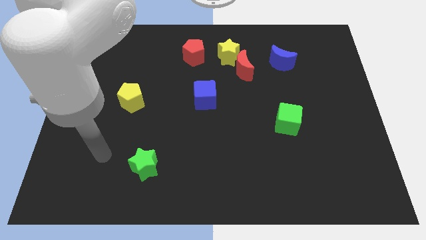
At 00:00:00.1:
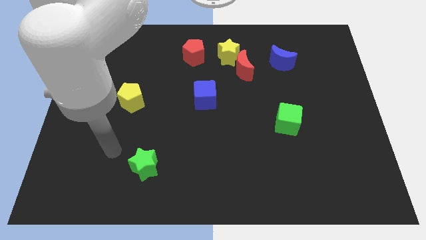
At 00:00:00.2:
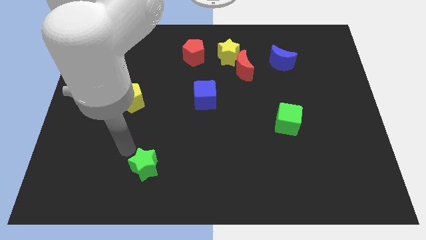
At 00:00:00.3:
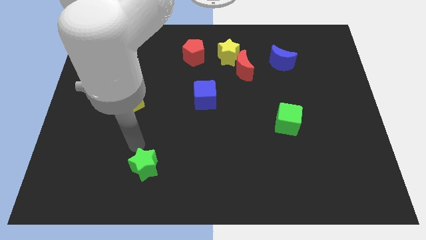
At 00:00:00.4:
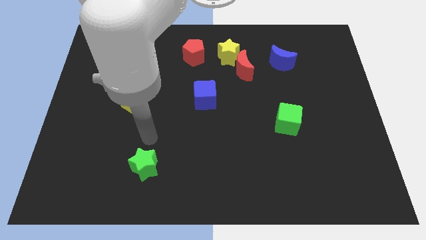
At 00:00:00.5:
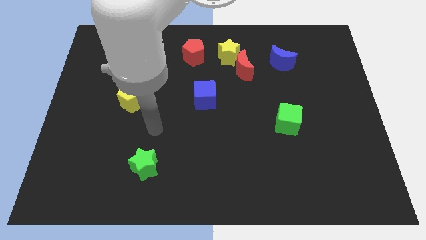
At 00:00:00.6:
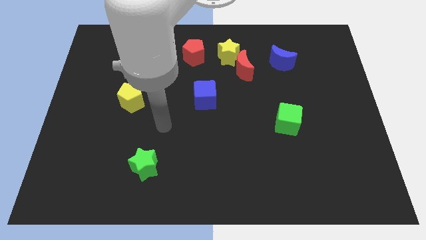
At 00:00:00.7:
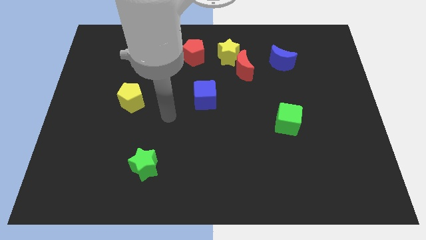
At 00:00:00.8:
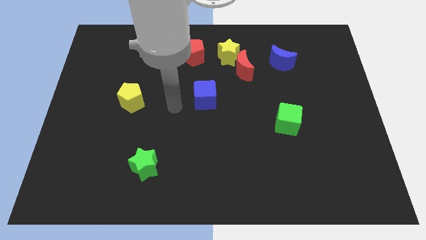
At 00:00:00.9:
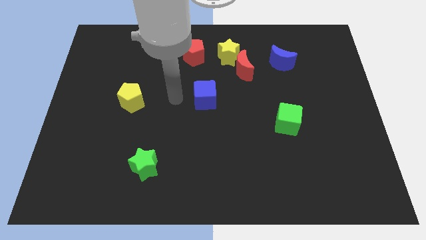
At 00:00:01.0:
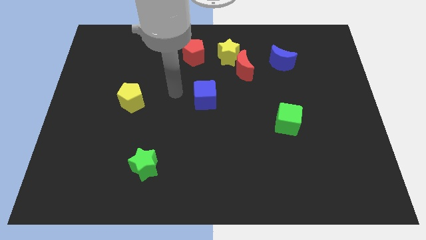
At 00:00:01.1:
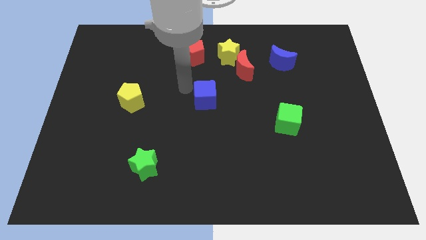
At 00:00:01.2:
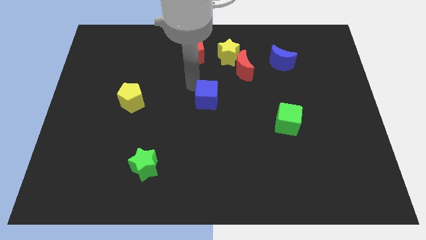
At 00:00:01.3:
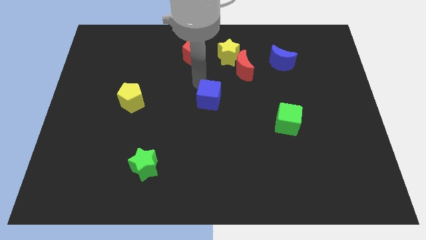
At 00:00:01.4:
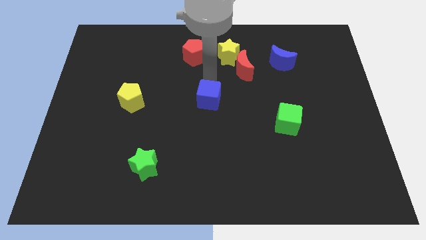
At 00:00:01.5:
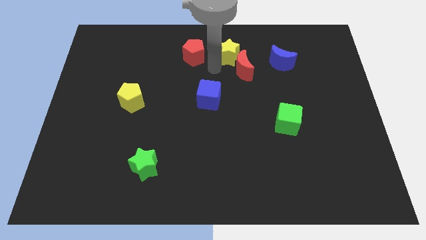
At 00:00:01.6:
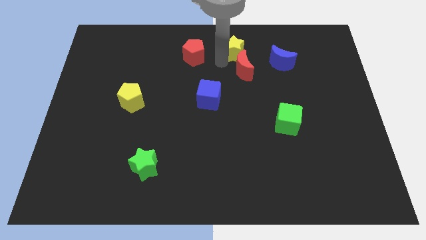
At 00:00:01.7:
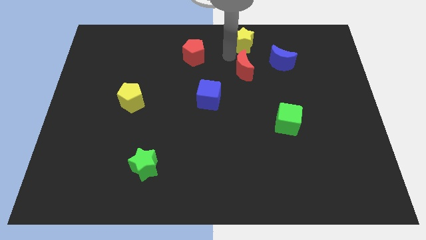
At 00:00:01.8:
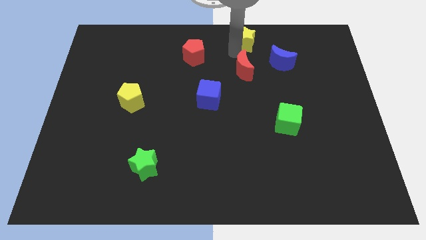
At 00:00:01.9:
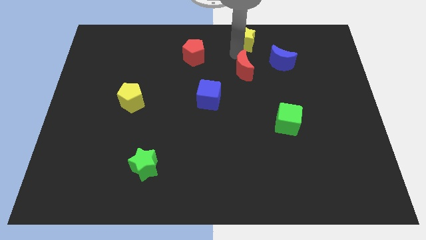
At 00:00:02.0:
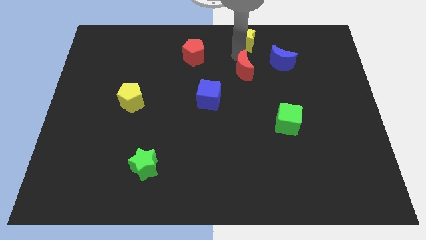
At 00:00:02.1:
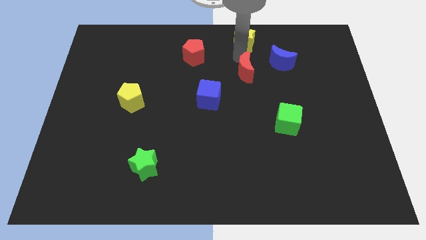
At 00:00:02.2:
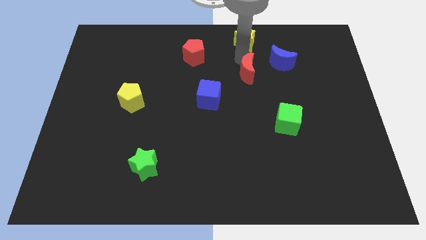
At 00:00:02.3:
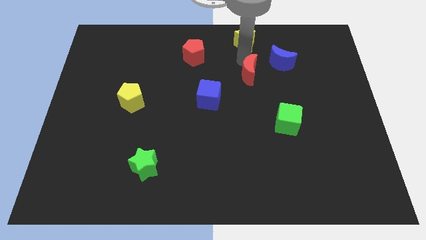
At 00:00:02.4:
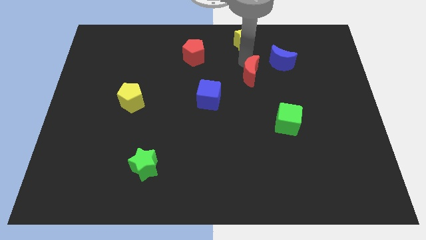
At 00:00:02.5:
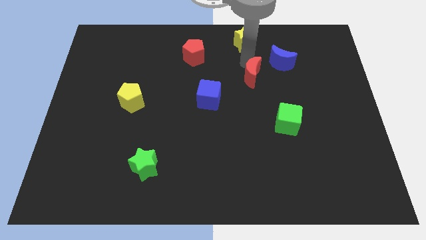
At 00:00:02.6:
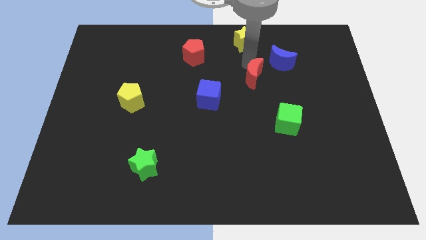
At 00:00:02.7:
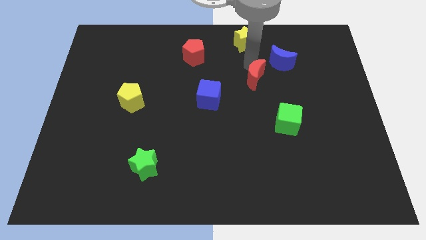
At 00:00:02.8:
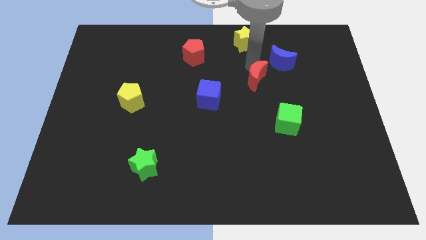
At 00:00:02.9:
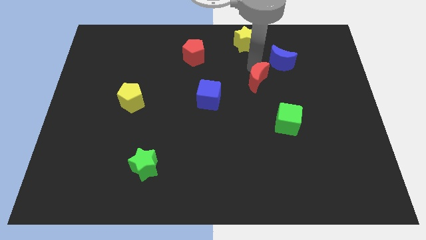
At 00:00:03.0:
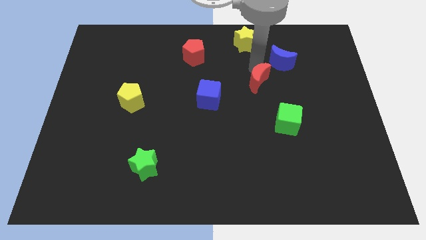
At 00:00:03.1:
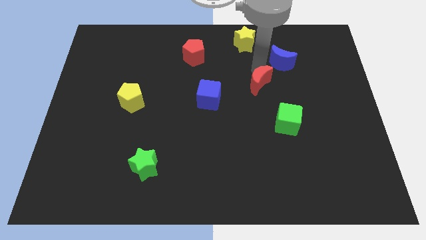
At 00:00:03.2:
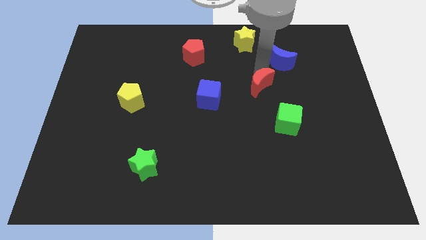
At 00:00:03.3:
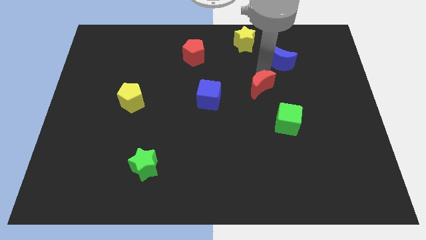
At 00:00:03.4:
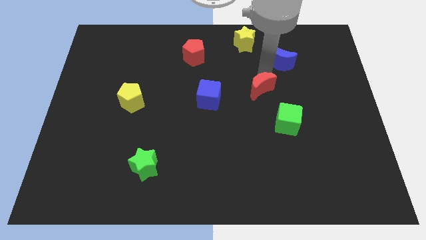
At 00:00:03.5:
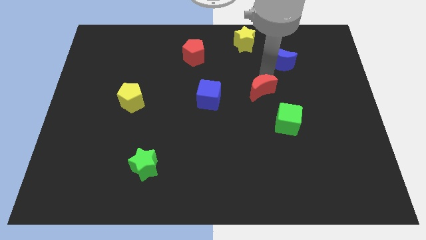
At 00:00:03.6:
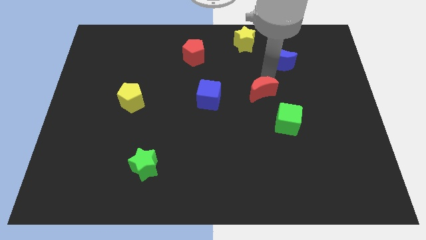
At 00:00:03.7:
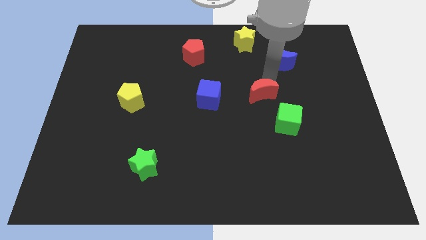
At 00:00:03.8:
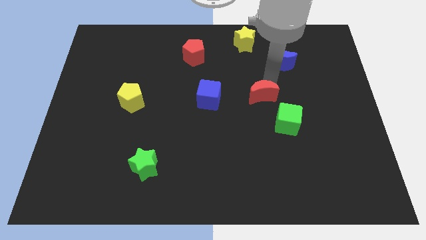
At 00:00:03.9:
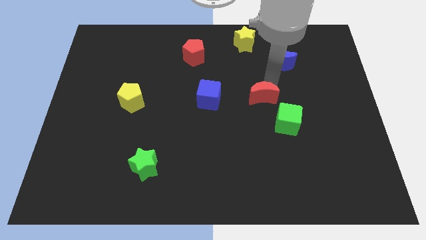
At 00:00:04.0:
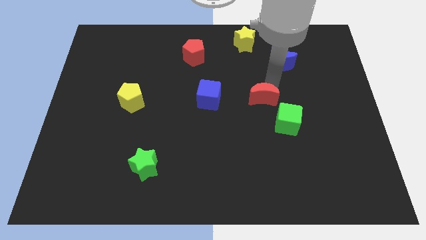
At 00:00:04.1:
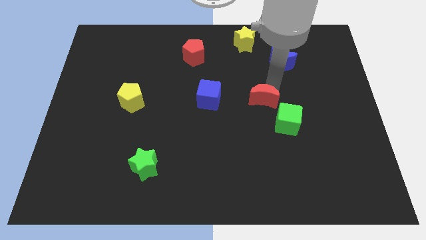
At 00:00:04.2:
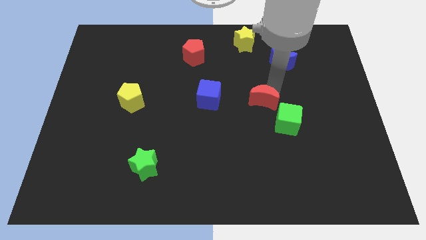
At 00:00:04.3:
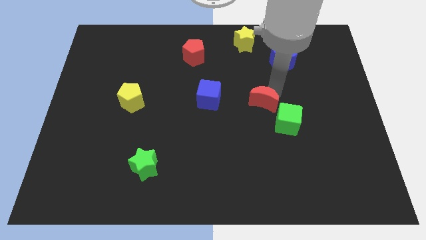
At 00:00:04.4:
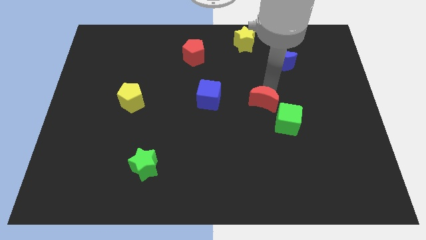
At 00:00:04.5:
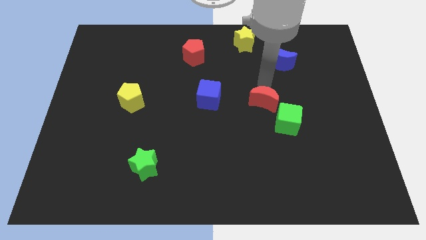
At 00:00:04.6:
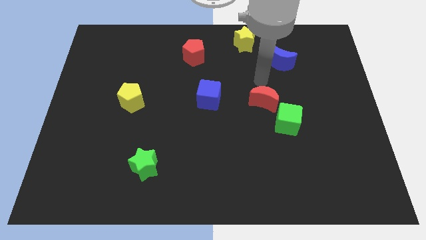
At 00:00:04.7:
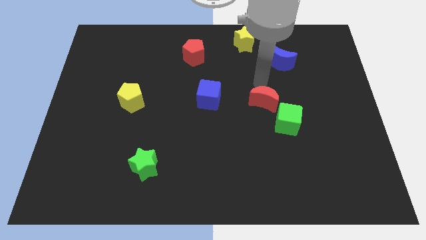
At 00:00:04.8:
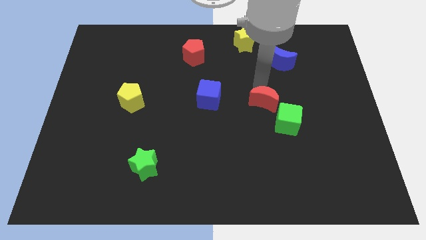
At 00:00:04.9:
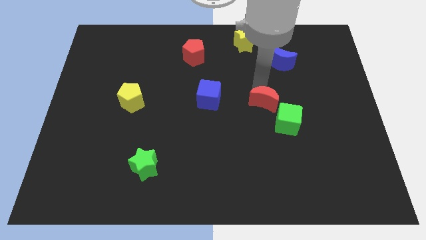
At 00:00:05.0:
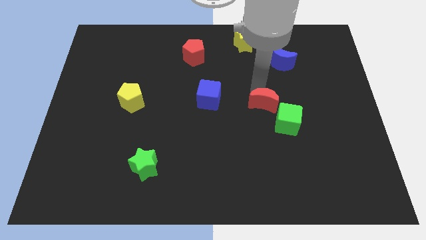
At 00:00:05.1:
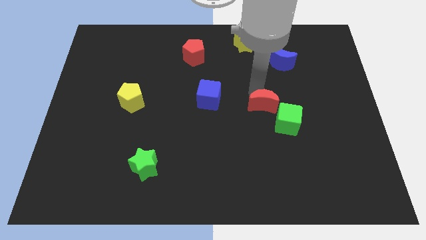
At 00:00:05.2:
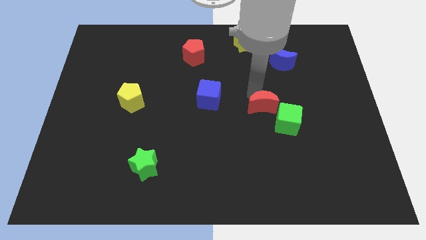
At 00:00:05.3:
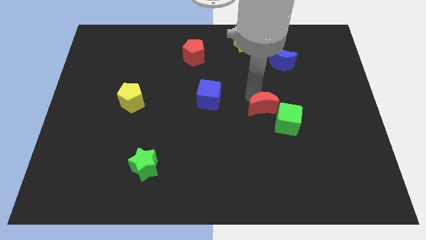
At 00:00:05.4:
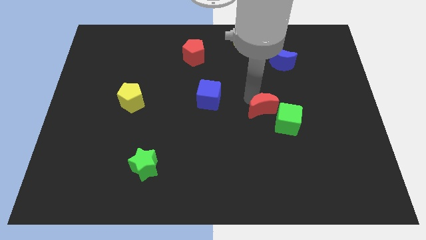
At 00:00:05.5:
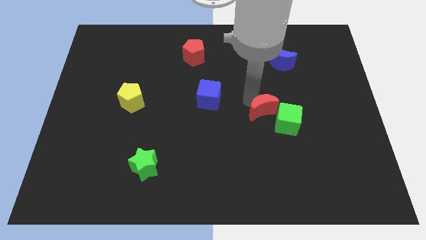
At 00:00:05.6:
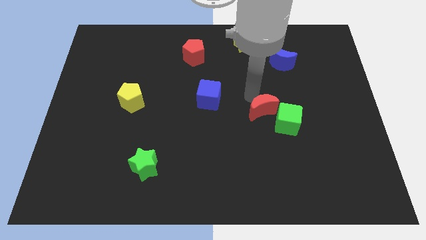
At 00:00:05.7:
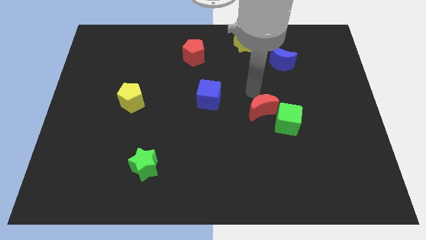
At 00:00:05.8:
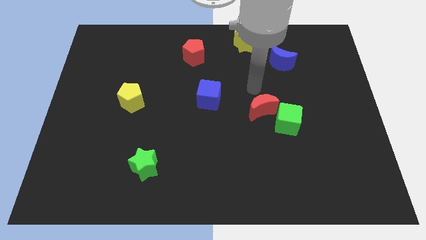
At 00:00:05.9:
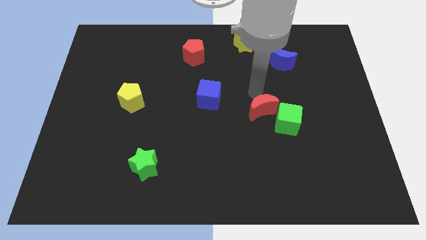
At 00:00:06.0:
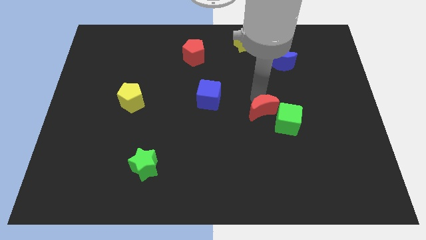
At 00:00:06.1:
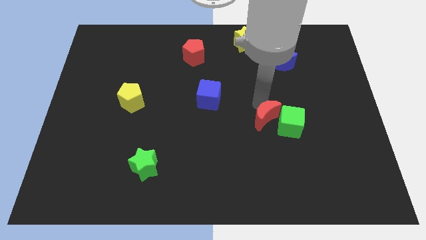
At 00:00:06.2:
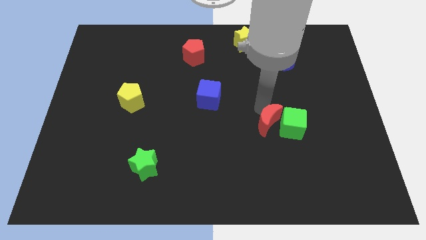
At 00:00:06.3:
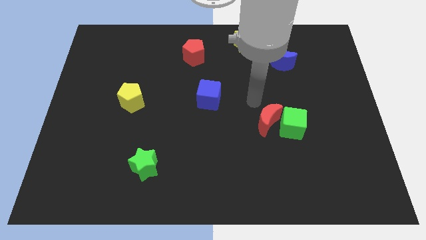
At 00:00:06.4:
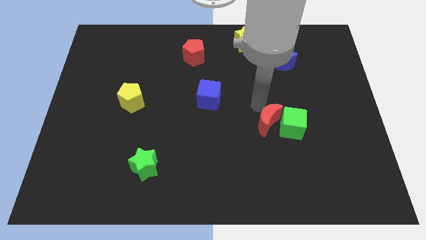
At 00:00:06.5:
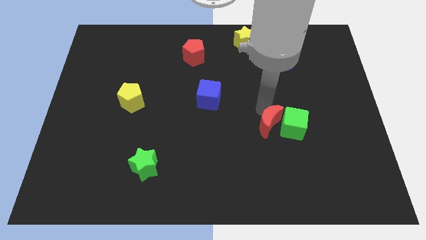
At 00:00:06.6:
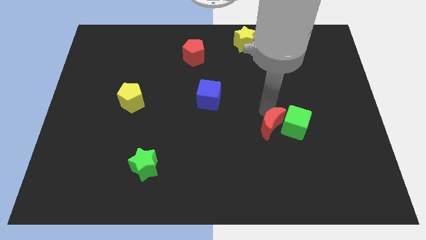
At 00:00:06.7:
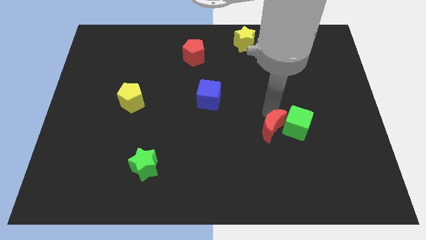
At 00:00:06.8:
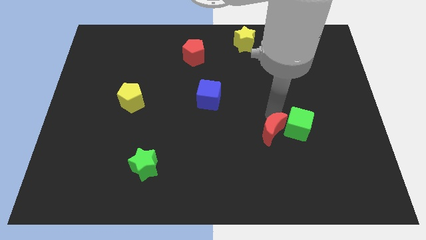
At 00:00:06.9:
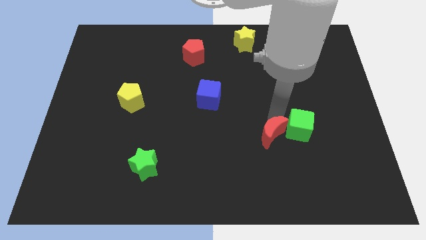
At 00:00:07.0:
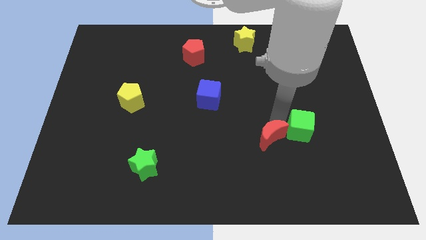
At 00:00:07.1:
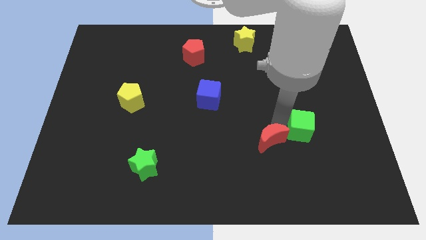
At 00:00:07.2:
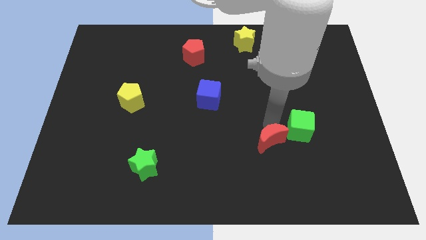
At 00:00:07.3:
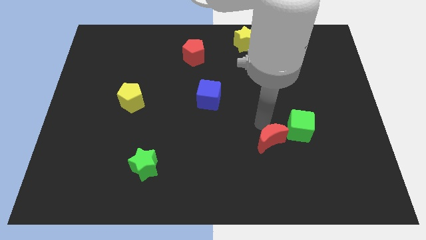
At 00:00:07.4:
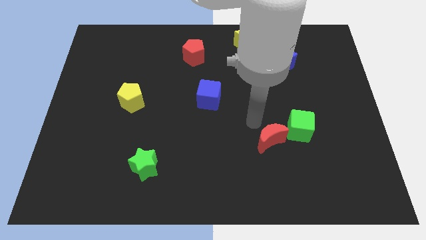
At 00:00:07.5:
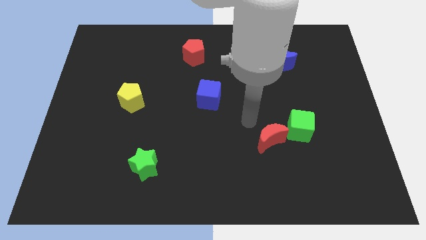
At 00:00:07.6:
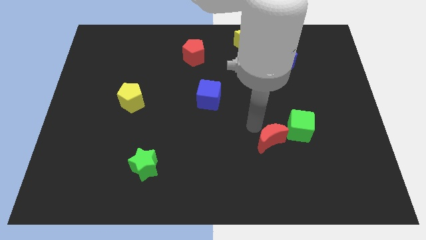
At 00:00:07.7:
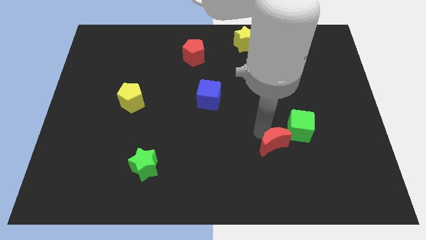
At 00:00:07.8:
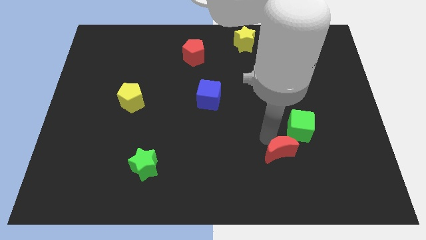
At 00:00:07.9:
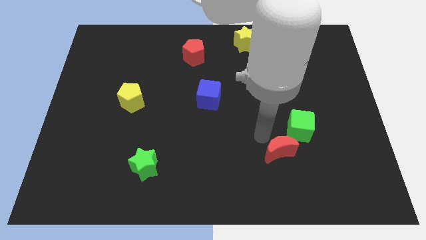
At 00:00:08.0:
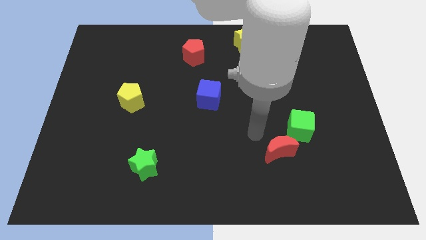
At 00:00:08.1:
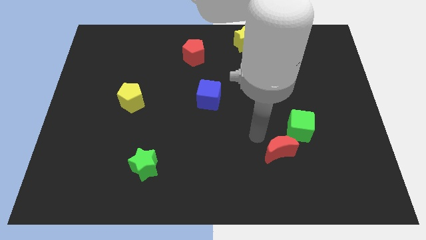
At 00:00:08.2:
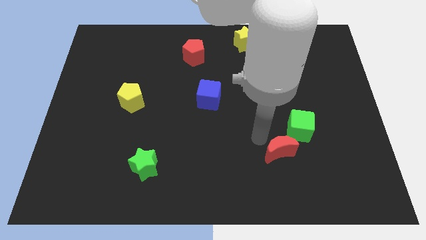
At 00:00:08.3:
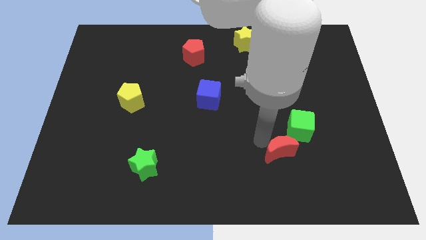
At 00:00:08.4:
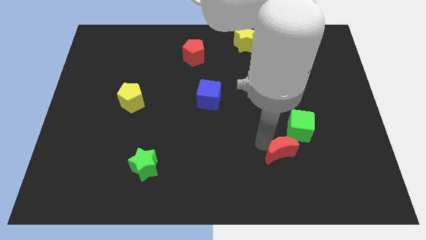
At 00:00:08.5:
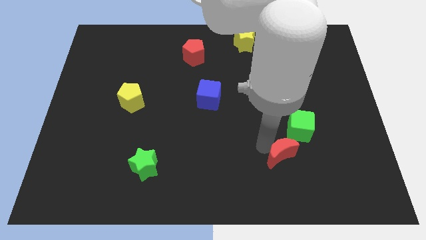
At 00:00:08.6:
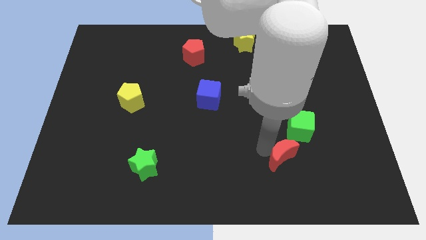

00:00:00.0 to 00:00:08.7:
slide the red moon below the green cube
